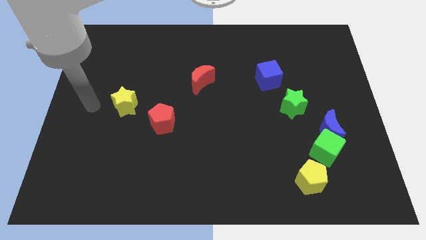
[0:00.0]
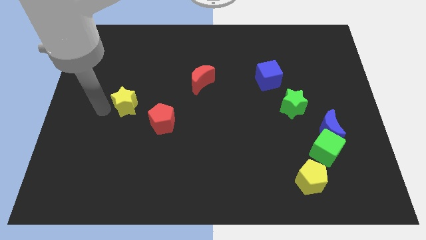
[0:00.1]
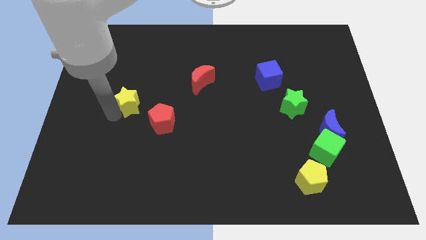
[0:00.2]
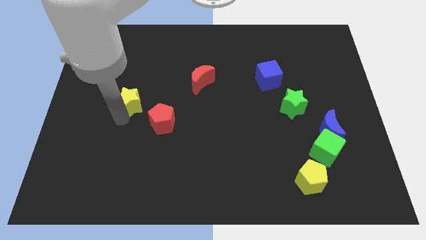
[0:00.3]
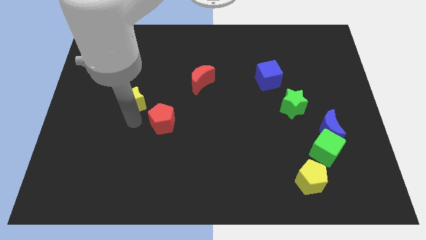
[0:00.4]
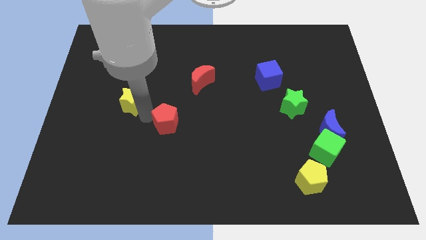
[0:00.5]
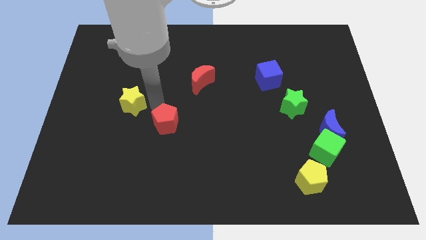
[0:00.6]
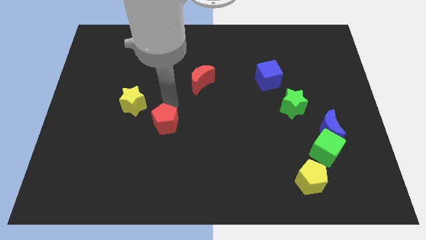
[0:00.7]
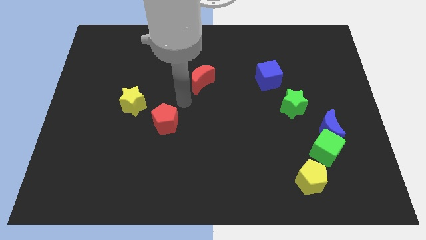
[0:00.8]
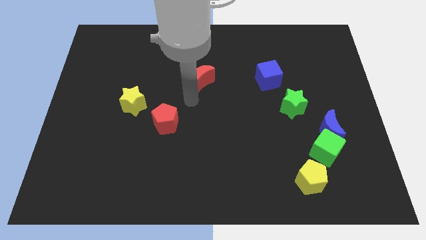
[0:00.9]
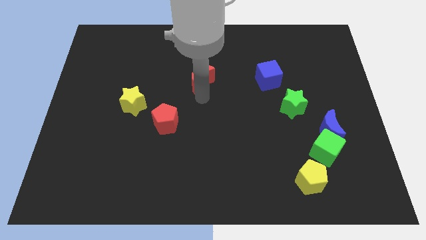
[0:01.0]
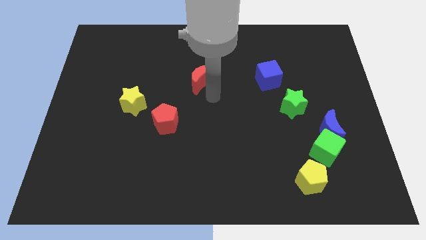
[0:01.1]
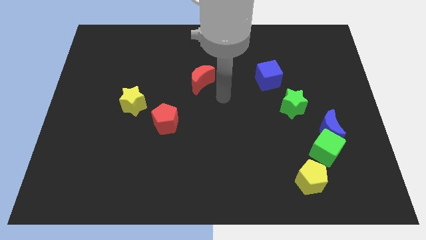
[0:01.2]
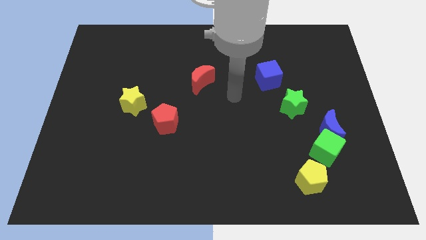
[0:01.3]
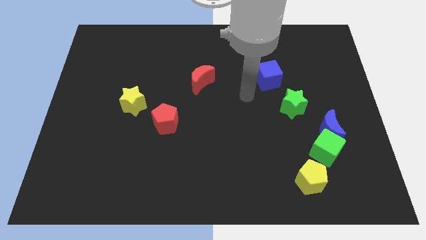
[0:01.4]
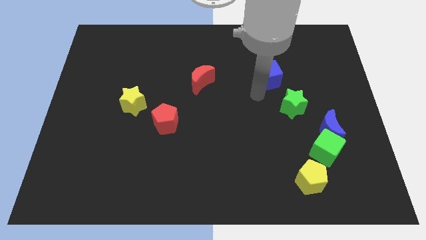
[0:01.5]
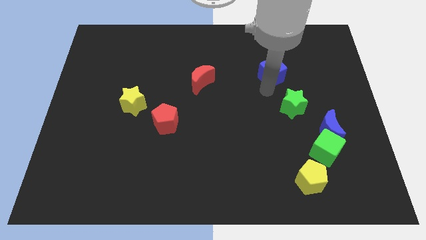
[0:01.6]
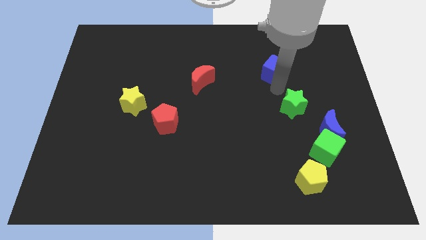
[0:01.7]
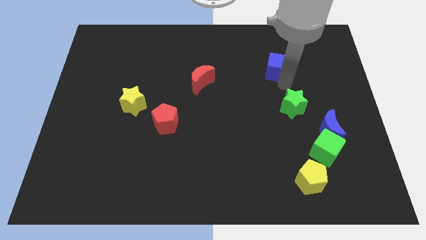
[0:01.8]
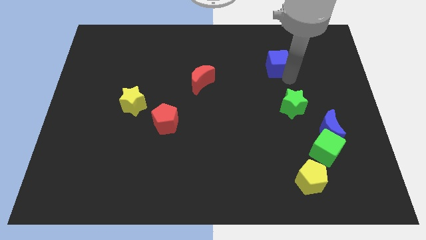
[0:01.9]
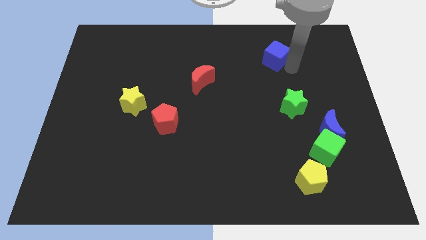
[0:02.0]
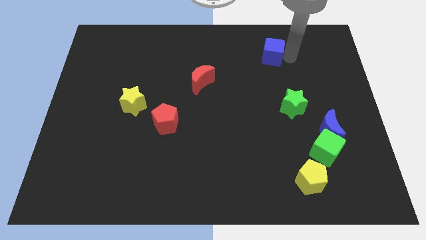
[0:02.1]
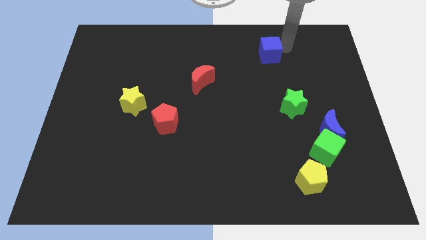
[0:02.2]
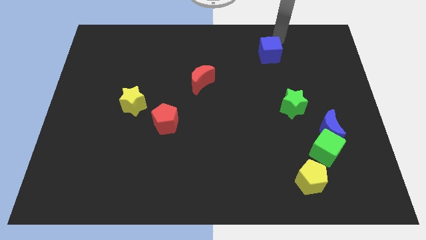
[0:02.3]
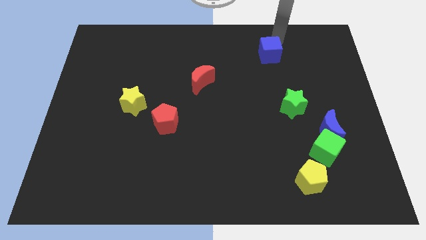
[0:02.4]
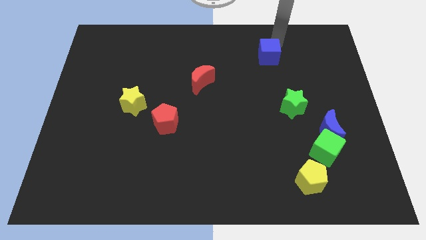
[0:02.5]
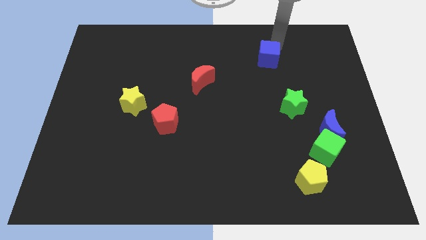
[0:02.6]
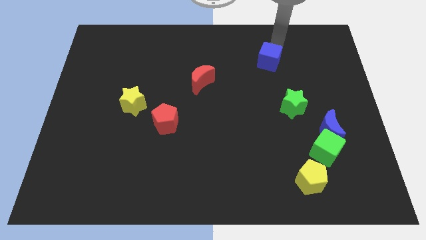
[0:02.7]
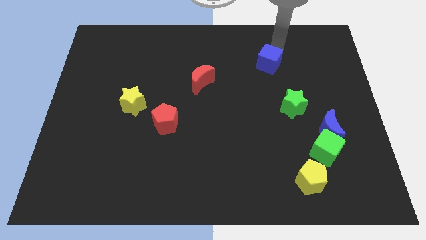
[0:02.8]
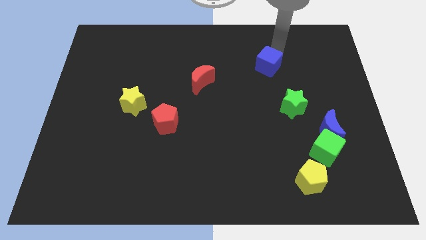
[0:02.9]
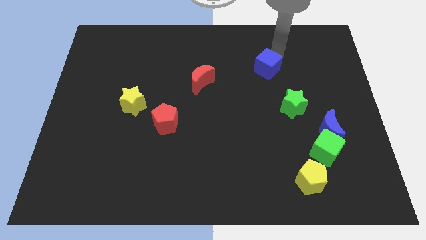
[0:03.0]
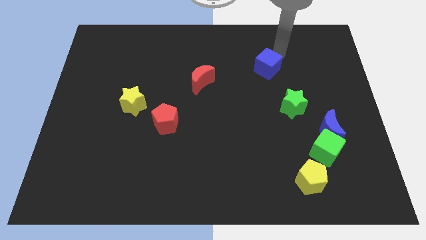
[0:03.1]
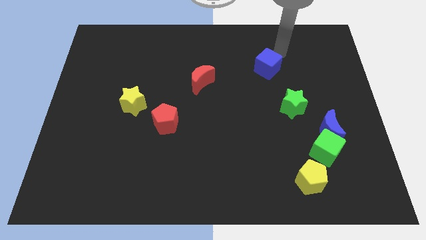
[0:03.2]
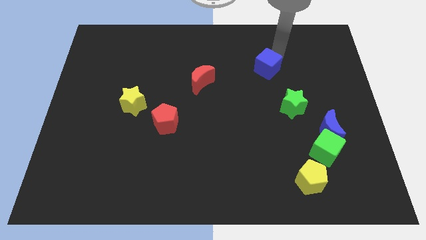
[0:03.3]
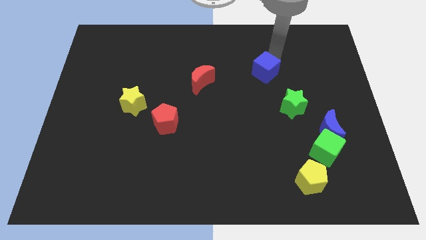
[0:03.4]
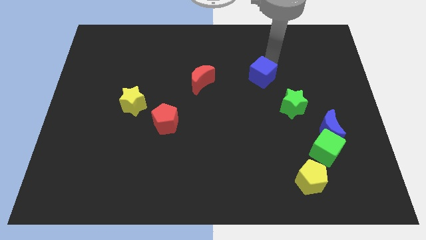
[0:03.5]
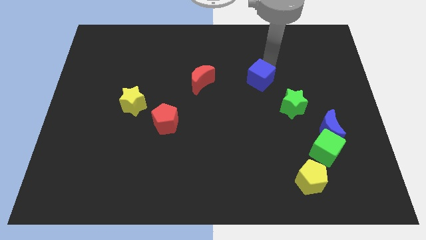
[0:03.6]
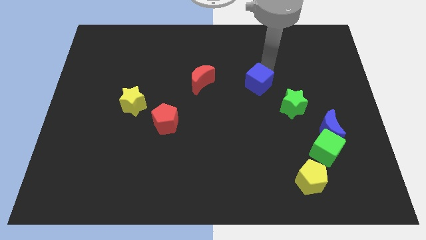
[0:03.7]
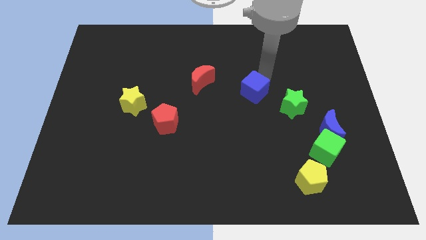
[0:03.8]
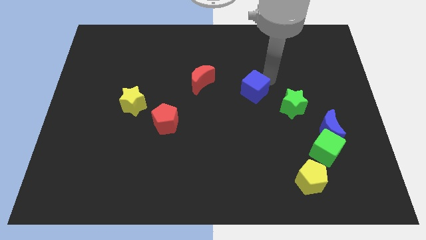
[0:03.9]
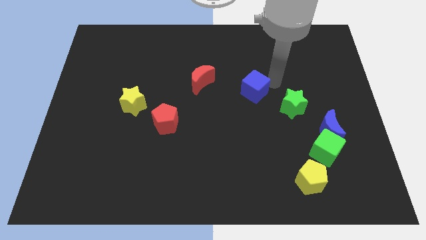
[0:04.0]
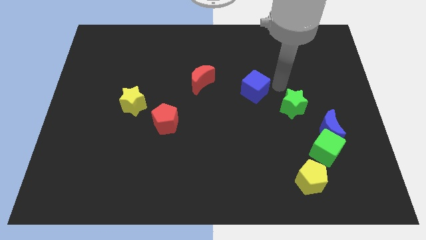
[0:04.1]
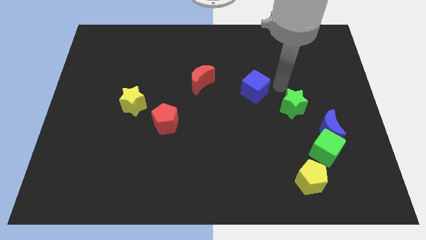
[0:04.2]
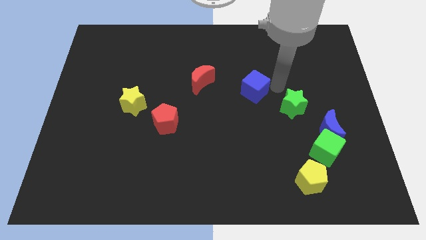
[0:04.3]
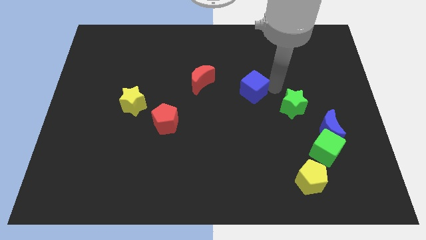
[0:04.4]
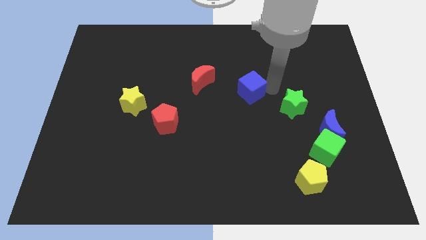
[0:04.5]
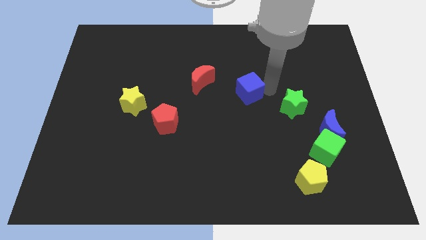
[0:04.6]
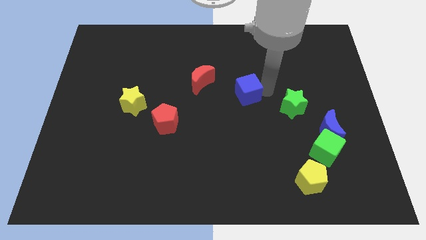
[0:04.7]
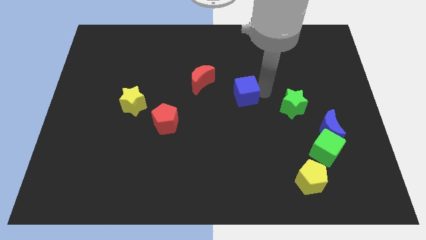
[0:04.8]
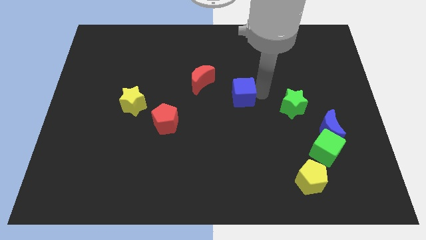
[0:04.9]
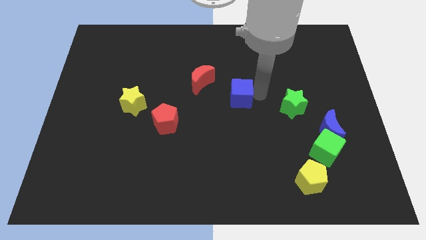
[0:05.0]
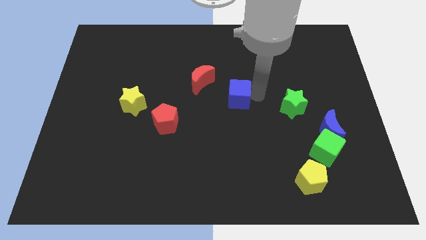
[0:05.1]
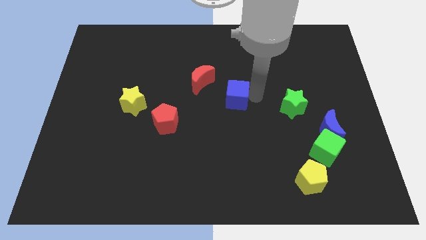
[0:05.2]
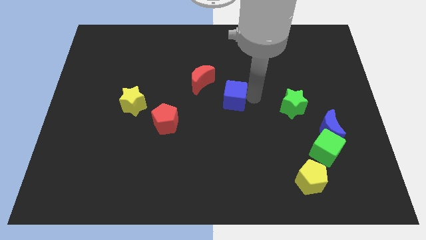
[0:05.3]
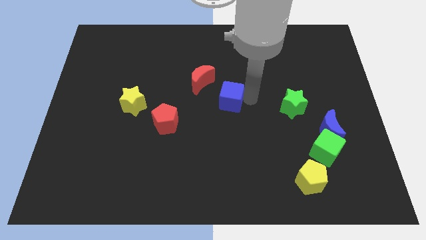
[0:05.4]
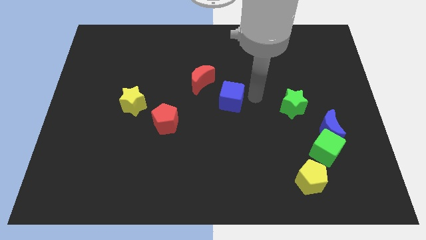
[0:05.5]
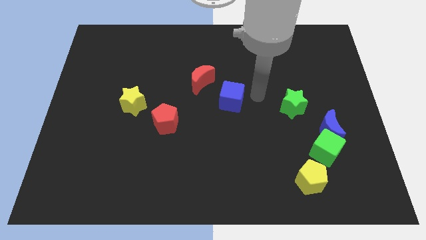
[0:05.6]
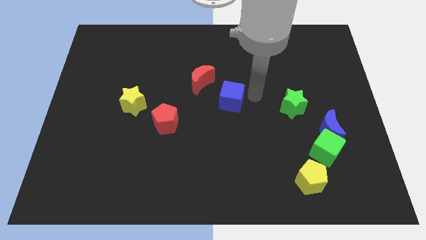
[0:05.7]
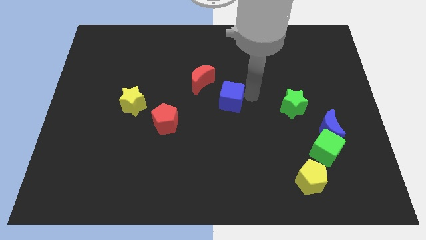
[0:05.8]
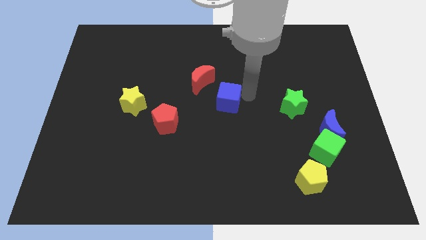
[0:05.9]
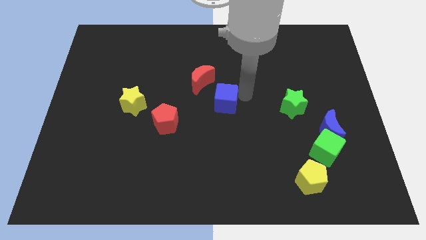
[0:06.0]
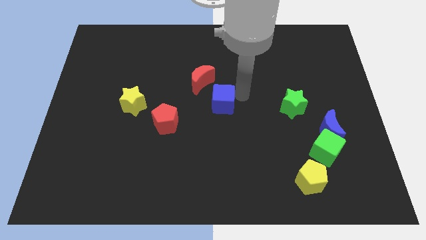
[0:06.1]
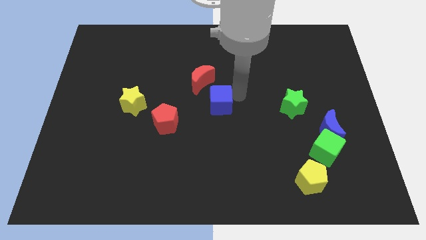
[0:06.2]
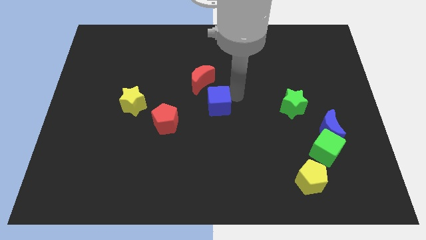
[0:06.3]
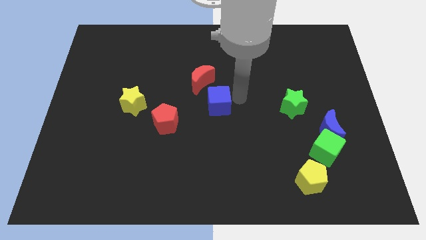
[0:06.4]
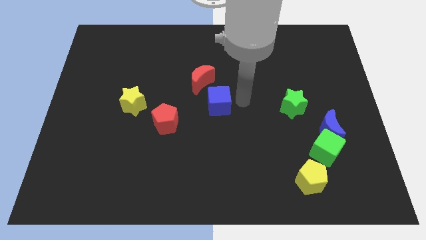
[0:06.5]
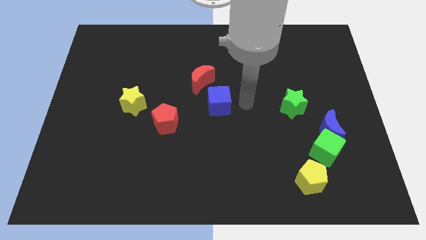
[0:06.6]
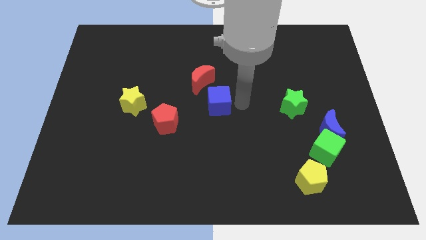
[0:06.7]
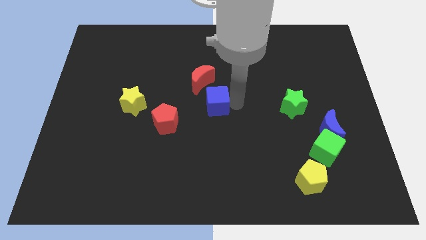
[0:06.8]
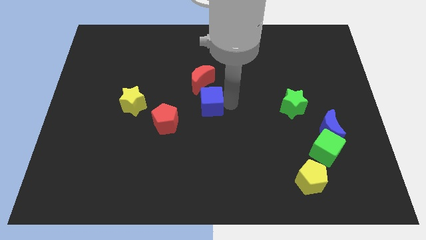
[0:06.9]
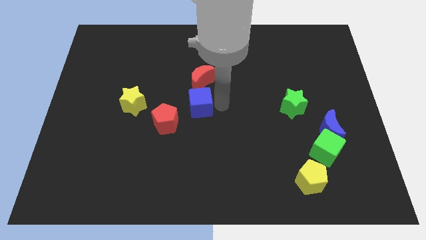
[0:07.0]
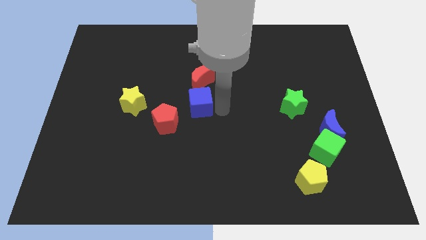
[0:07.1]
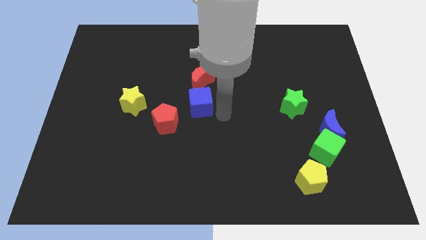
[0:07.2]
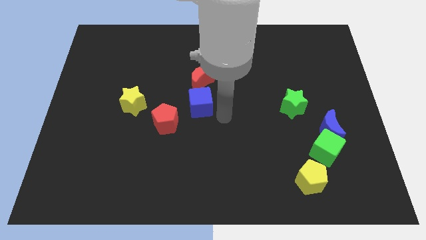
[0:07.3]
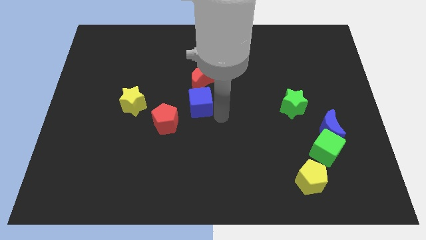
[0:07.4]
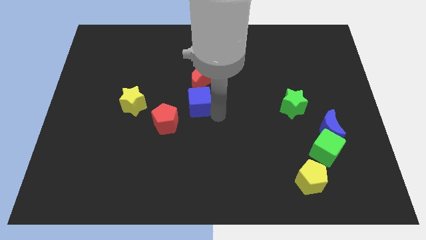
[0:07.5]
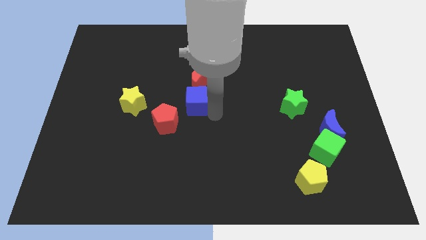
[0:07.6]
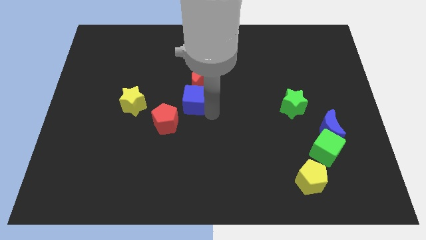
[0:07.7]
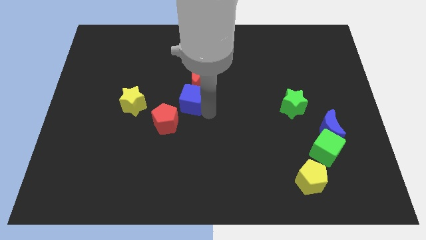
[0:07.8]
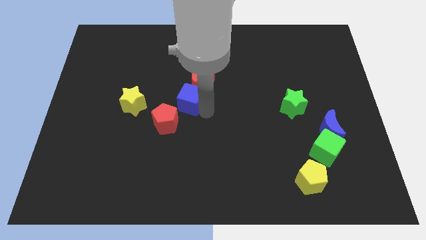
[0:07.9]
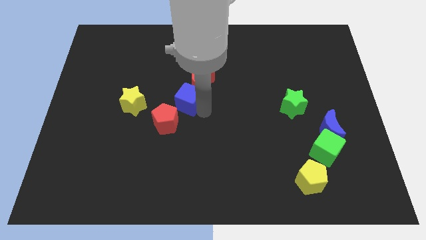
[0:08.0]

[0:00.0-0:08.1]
move the blue cube to the top of the red pentagon
